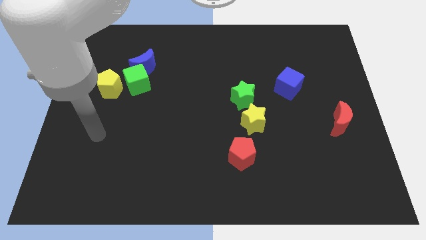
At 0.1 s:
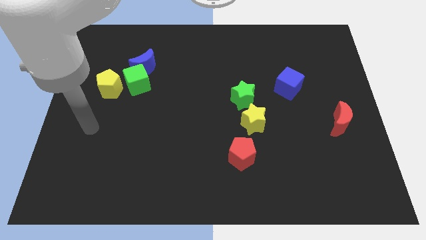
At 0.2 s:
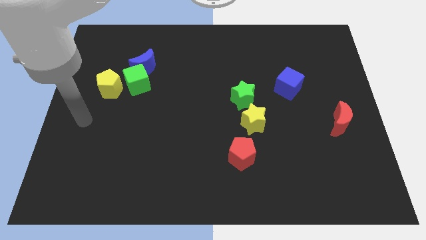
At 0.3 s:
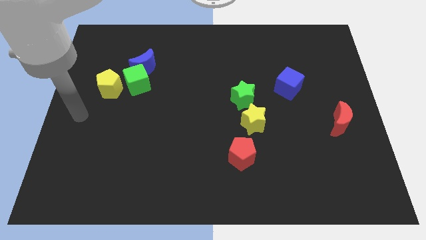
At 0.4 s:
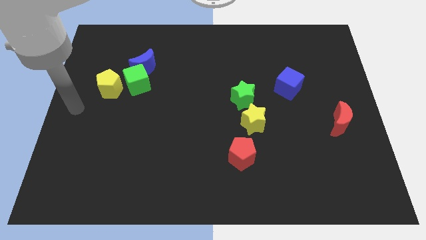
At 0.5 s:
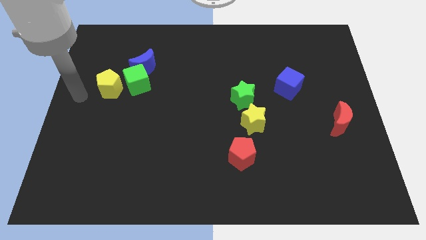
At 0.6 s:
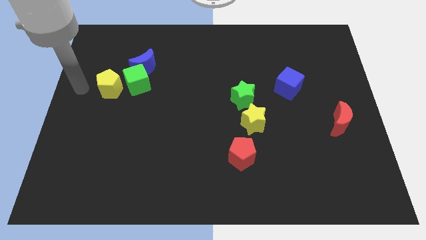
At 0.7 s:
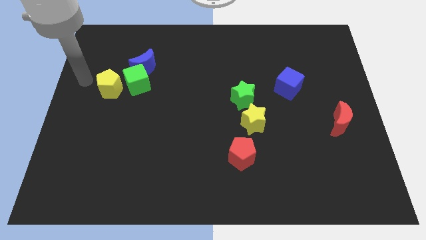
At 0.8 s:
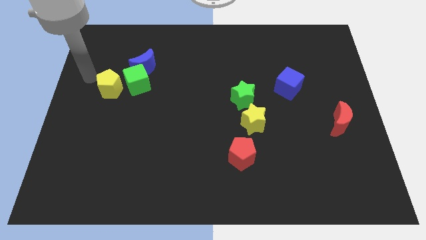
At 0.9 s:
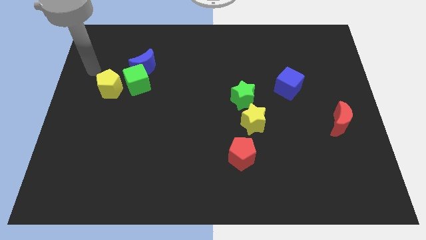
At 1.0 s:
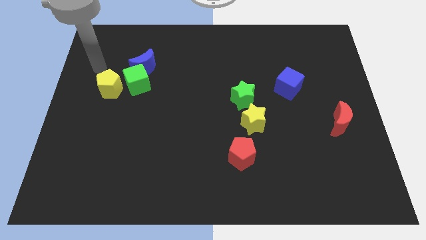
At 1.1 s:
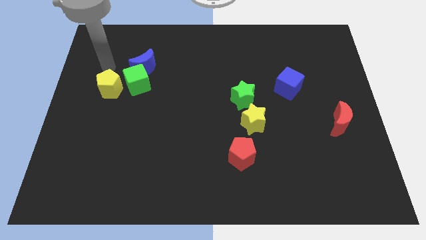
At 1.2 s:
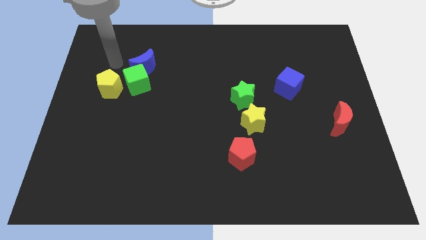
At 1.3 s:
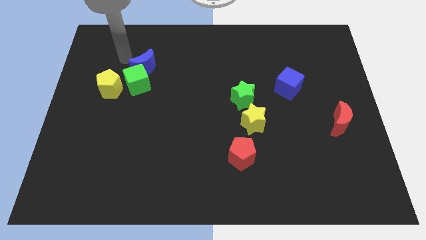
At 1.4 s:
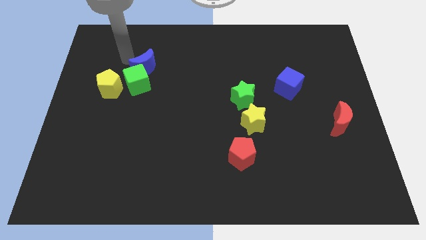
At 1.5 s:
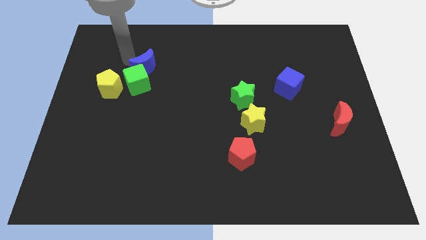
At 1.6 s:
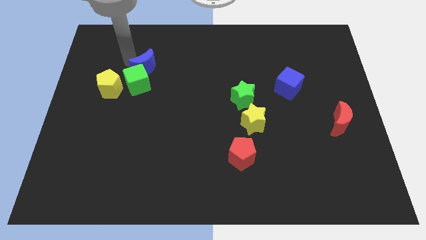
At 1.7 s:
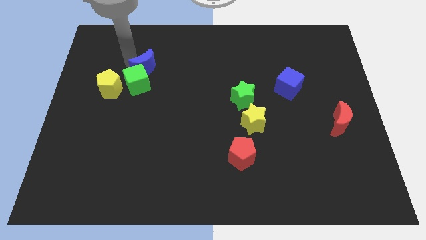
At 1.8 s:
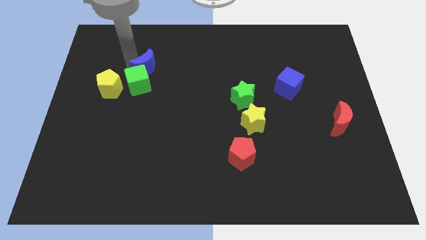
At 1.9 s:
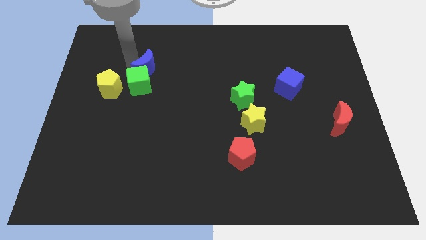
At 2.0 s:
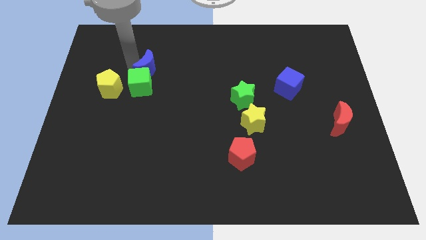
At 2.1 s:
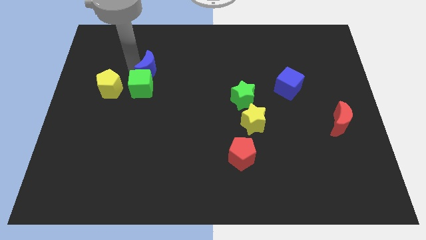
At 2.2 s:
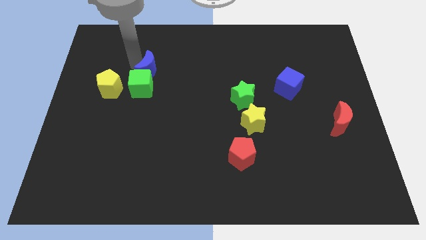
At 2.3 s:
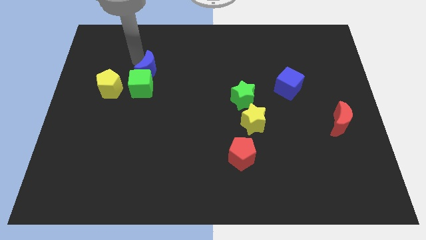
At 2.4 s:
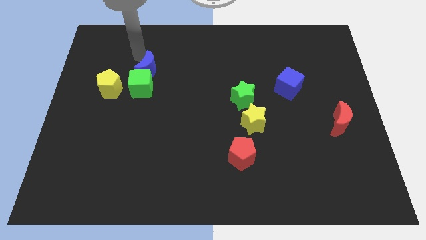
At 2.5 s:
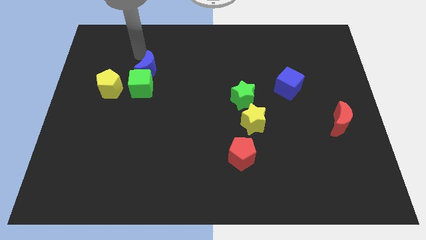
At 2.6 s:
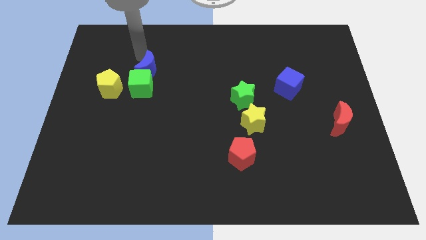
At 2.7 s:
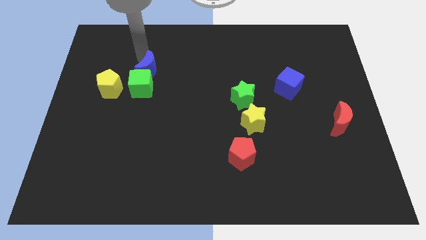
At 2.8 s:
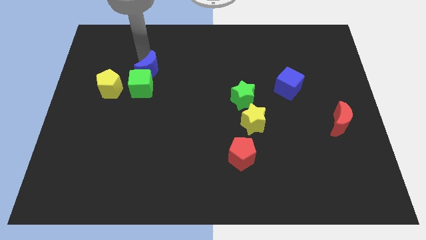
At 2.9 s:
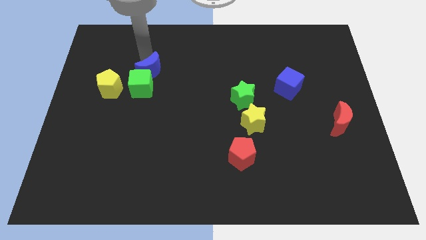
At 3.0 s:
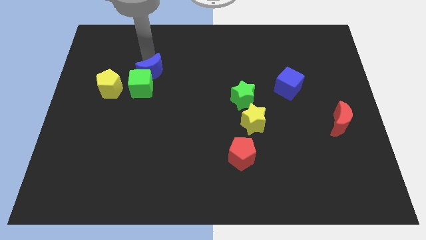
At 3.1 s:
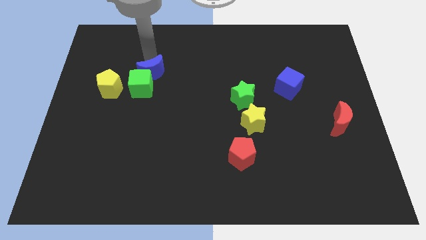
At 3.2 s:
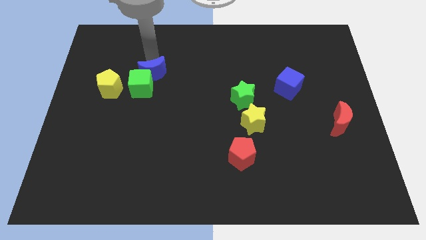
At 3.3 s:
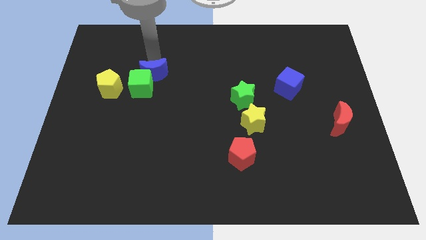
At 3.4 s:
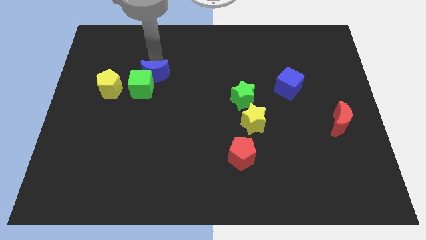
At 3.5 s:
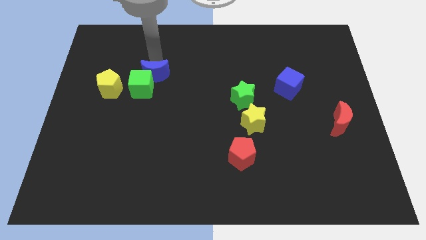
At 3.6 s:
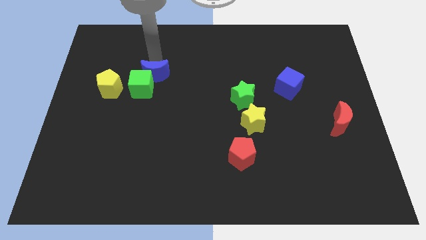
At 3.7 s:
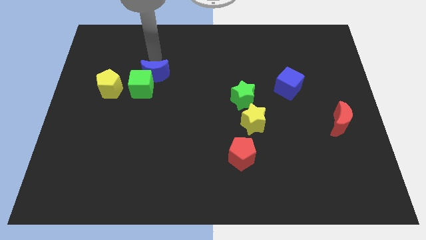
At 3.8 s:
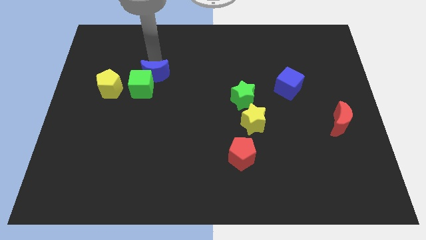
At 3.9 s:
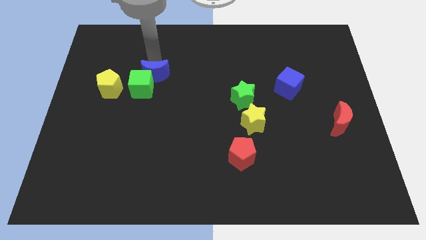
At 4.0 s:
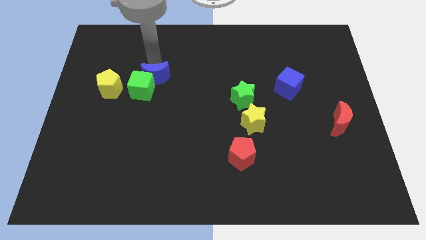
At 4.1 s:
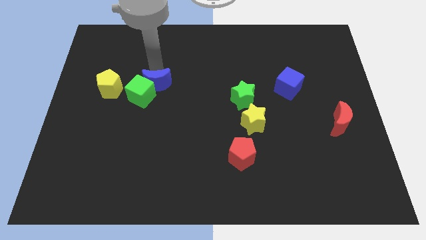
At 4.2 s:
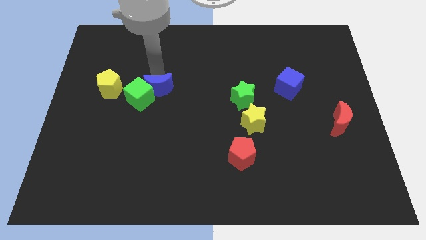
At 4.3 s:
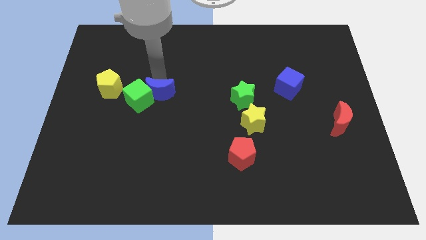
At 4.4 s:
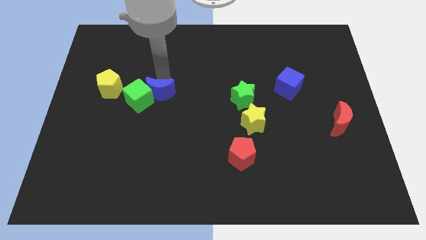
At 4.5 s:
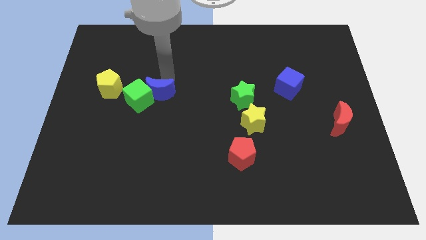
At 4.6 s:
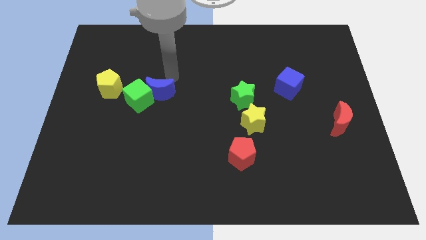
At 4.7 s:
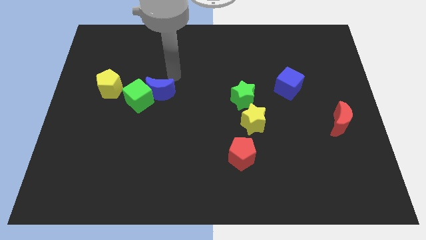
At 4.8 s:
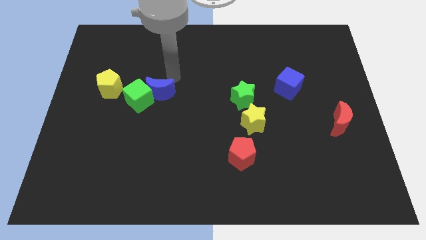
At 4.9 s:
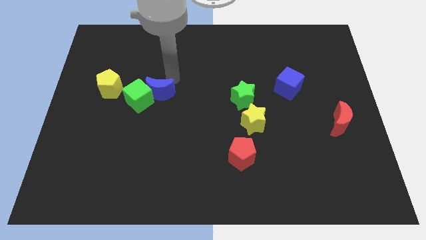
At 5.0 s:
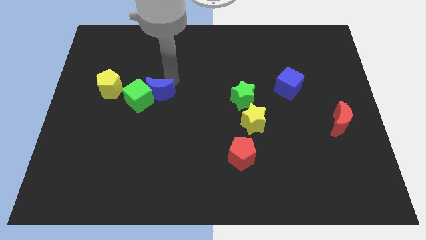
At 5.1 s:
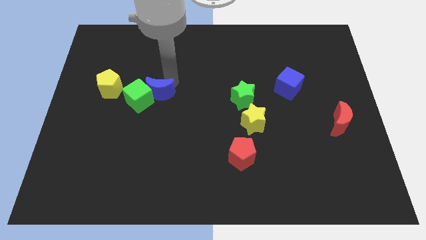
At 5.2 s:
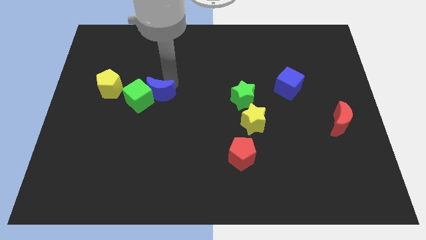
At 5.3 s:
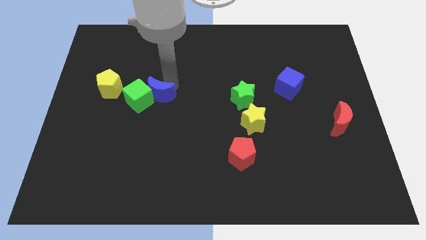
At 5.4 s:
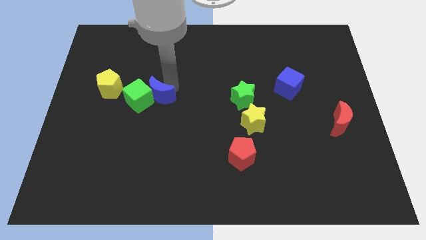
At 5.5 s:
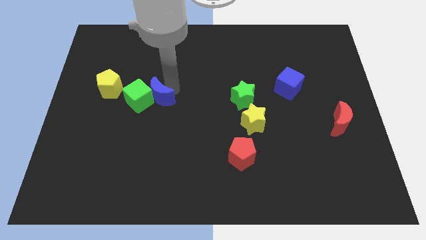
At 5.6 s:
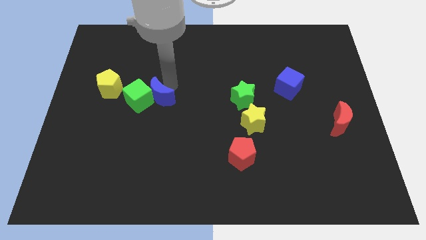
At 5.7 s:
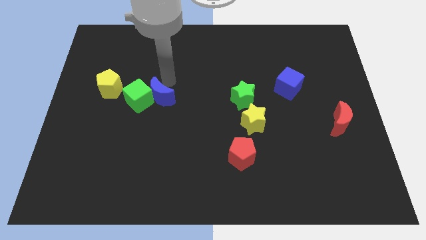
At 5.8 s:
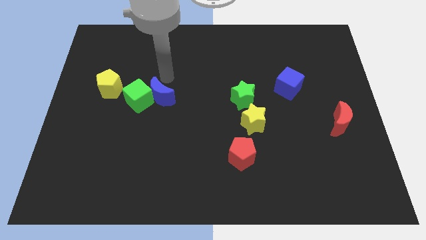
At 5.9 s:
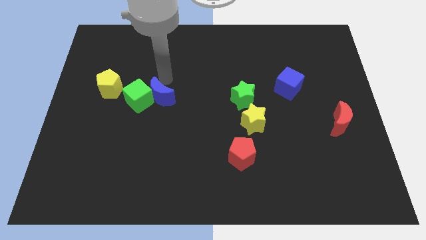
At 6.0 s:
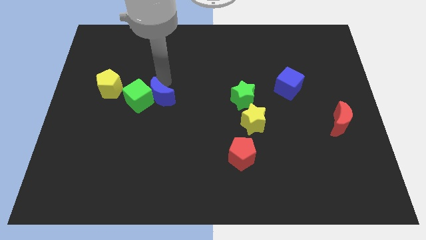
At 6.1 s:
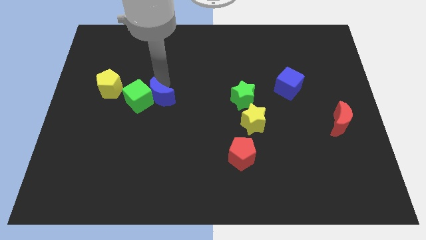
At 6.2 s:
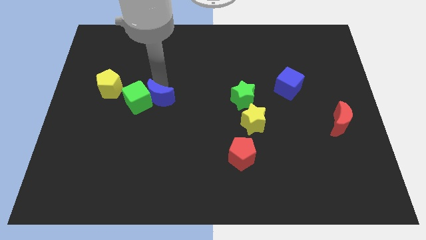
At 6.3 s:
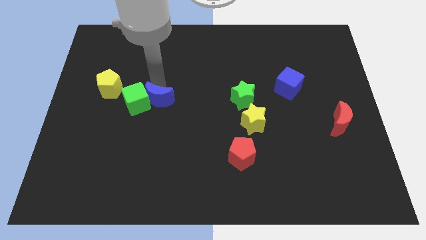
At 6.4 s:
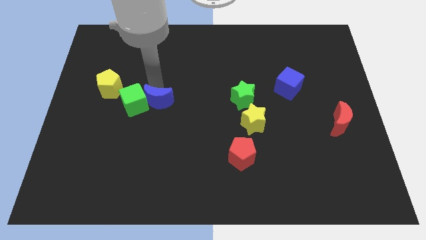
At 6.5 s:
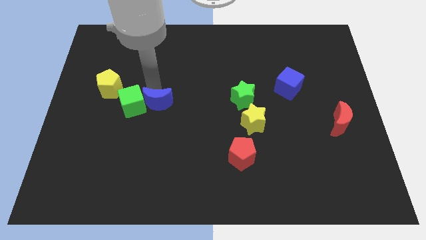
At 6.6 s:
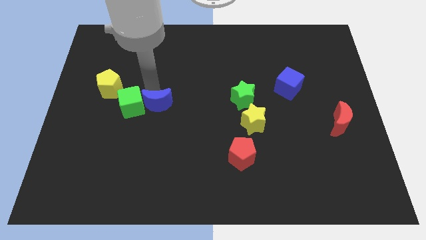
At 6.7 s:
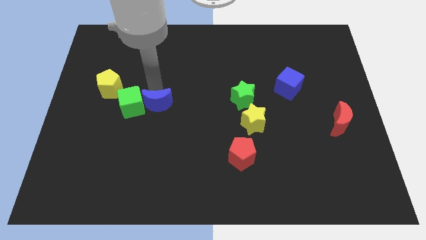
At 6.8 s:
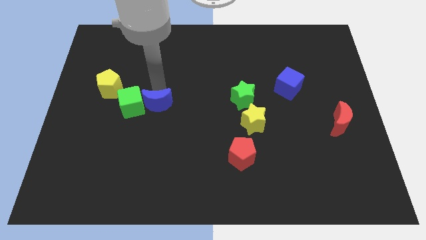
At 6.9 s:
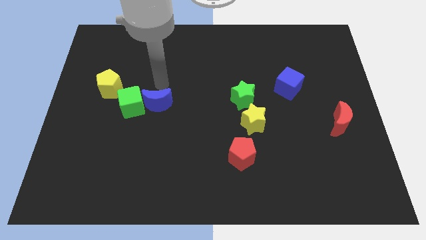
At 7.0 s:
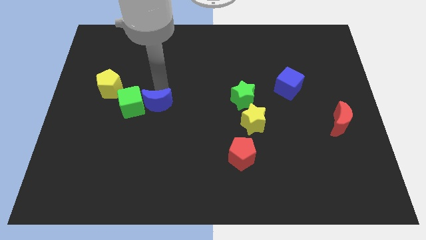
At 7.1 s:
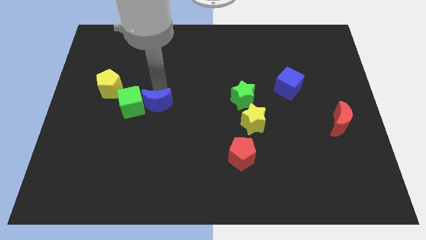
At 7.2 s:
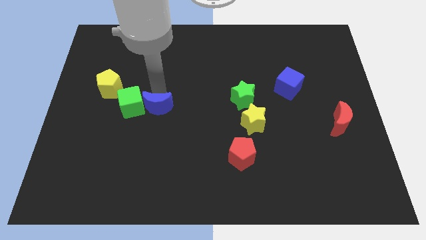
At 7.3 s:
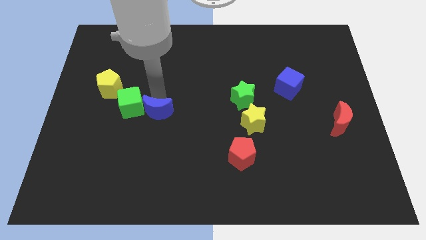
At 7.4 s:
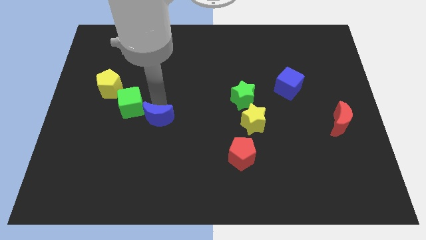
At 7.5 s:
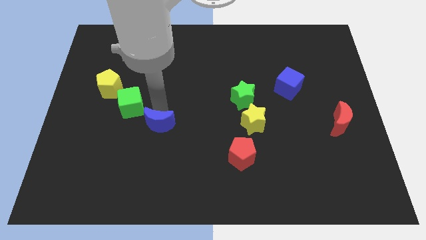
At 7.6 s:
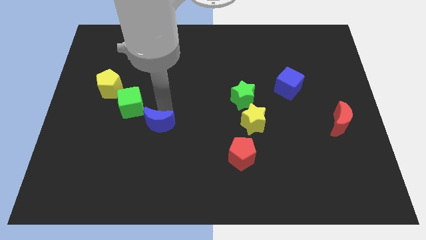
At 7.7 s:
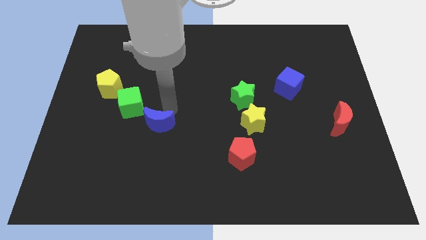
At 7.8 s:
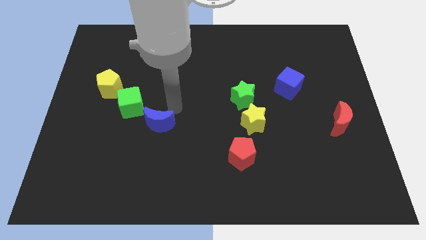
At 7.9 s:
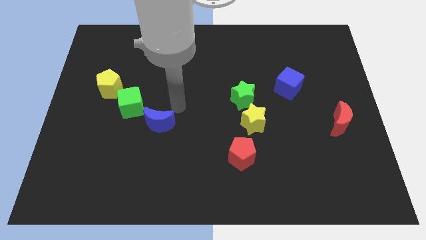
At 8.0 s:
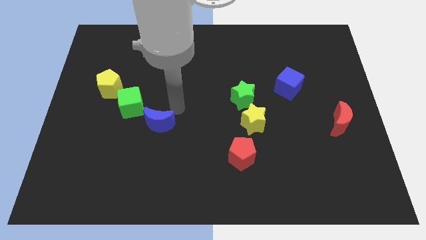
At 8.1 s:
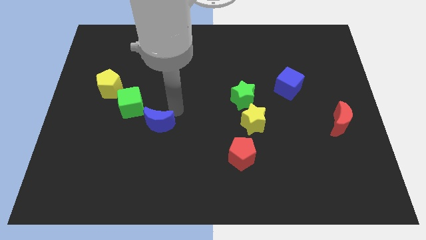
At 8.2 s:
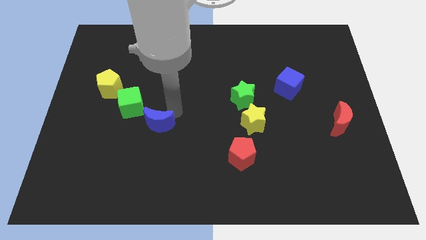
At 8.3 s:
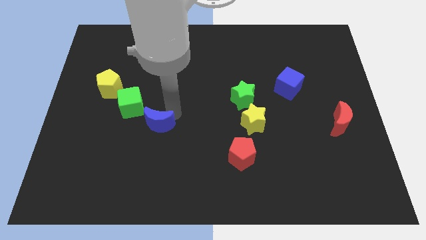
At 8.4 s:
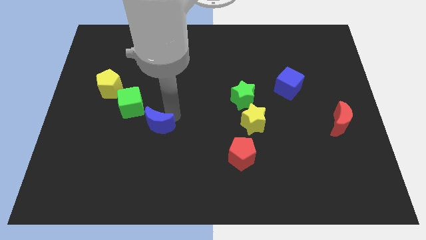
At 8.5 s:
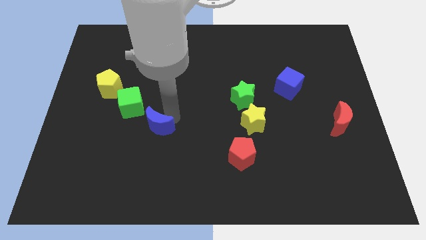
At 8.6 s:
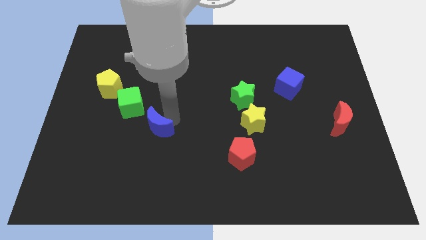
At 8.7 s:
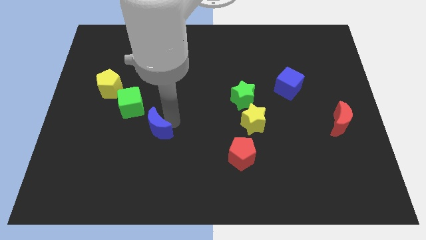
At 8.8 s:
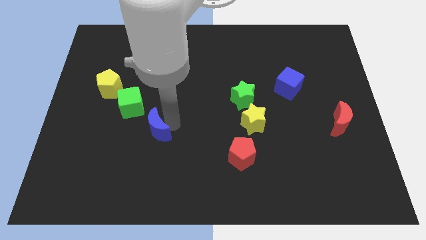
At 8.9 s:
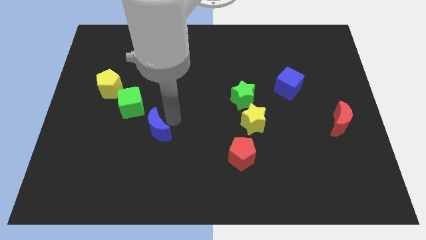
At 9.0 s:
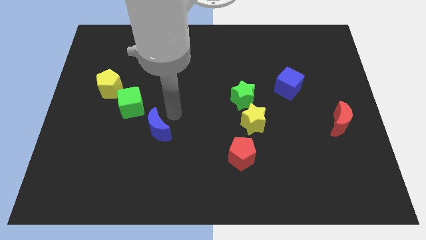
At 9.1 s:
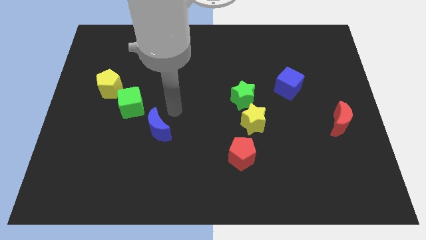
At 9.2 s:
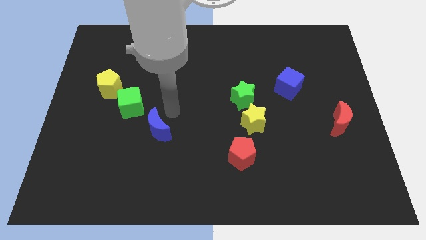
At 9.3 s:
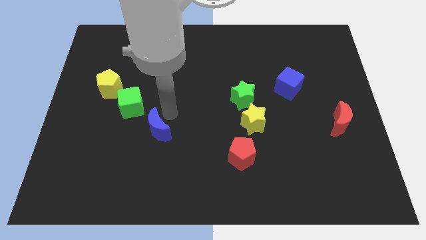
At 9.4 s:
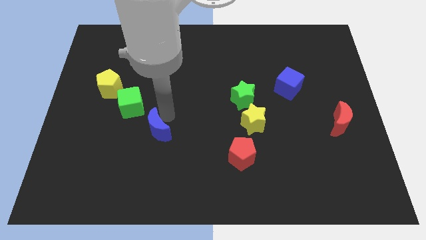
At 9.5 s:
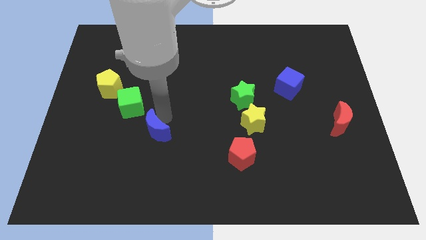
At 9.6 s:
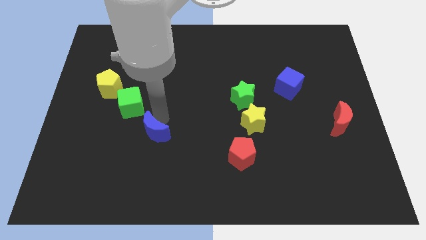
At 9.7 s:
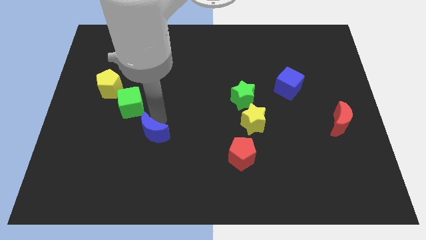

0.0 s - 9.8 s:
push the blue moon downwards
